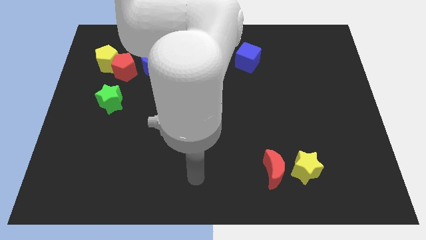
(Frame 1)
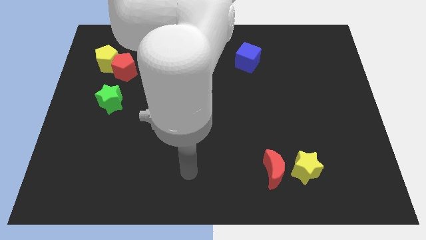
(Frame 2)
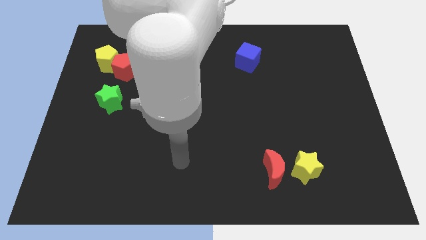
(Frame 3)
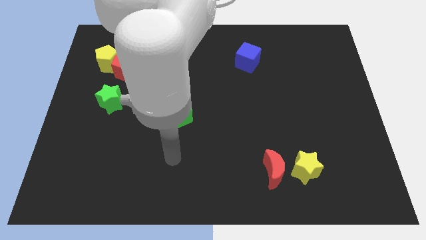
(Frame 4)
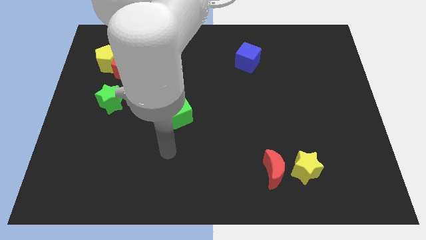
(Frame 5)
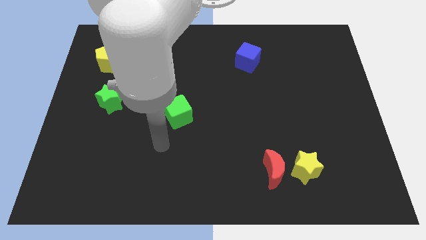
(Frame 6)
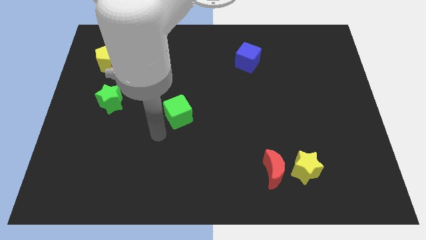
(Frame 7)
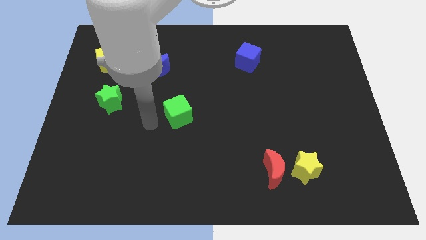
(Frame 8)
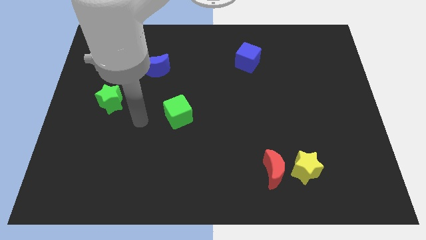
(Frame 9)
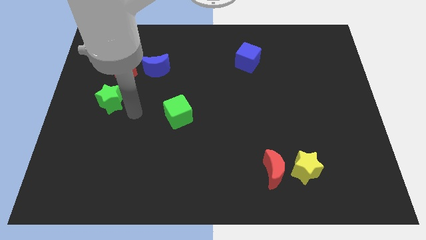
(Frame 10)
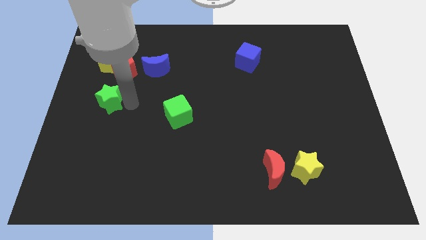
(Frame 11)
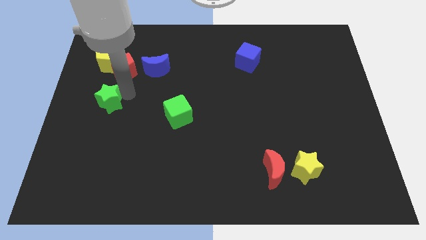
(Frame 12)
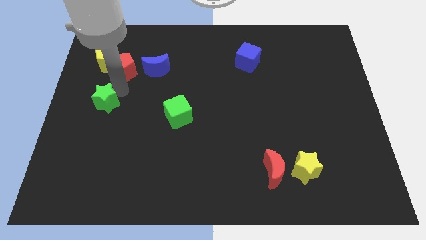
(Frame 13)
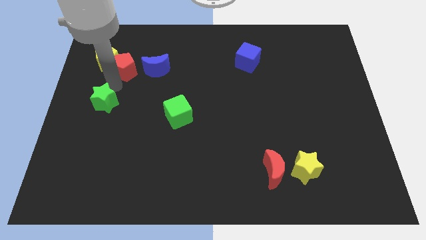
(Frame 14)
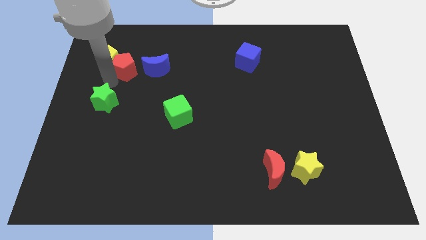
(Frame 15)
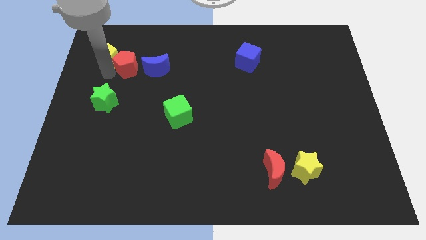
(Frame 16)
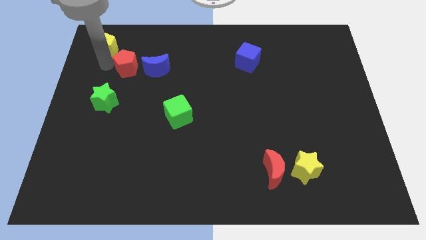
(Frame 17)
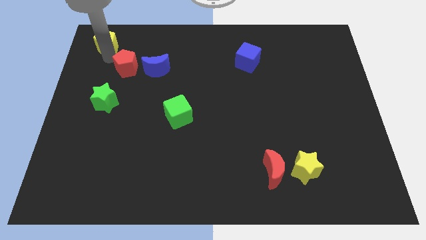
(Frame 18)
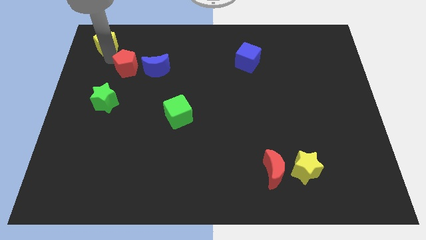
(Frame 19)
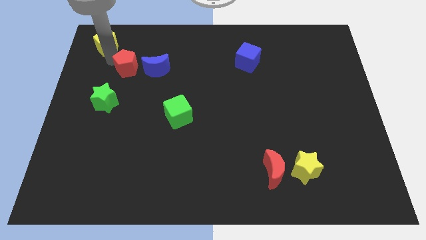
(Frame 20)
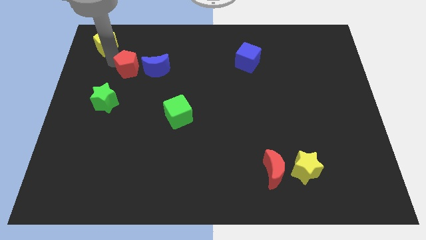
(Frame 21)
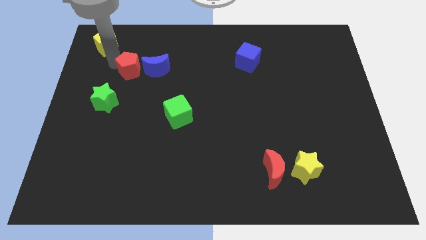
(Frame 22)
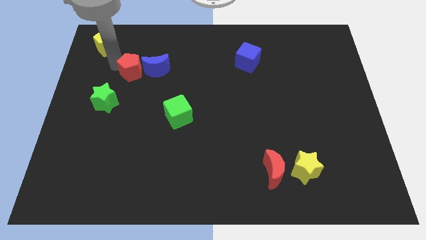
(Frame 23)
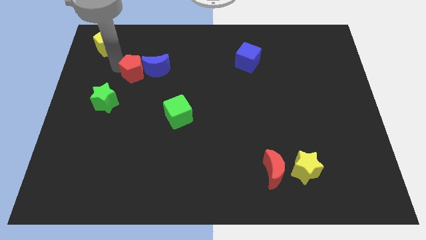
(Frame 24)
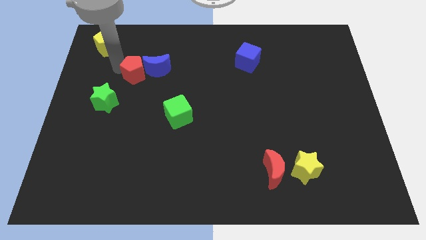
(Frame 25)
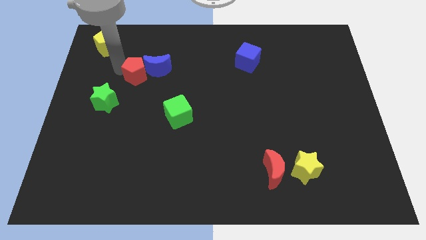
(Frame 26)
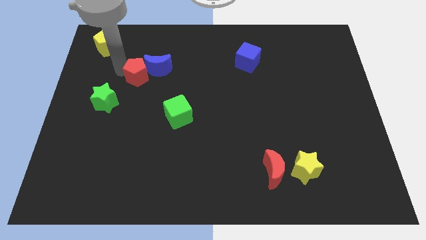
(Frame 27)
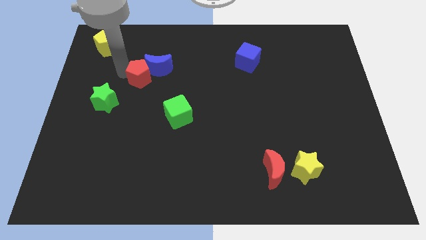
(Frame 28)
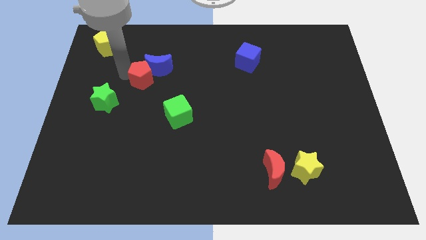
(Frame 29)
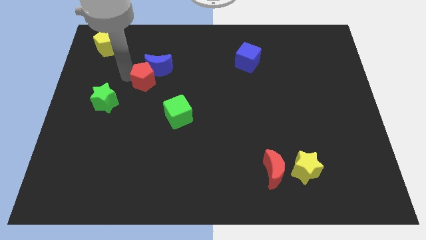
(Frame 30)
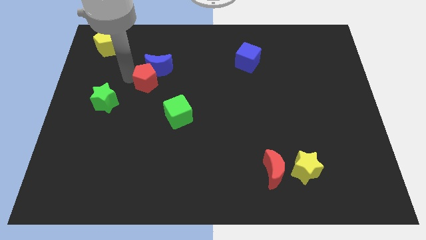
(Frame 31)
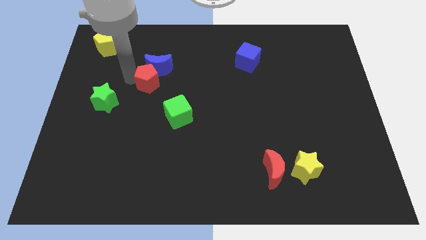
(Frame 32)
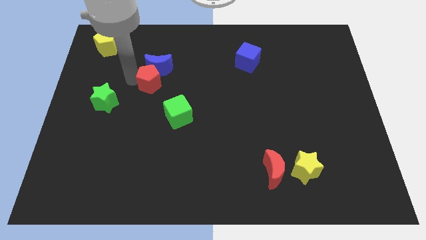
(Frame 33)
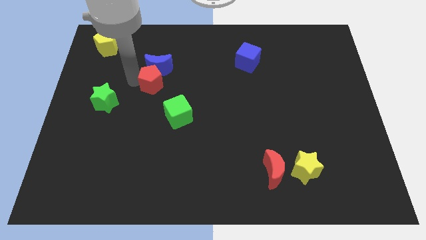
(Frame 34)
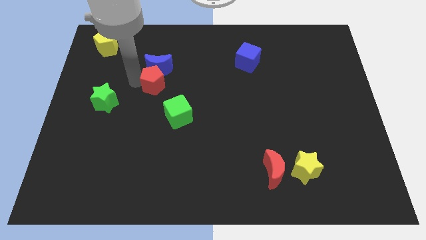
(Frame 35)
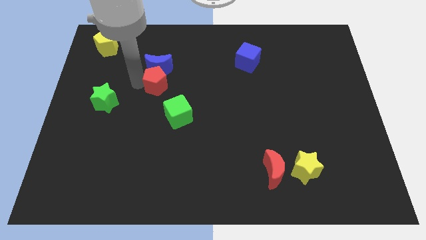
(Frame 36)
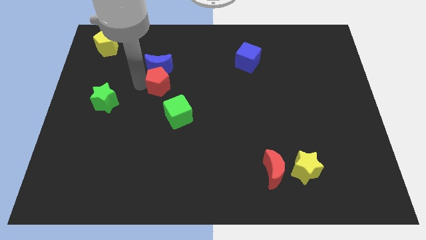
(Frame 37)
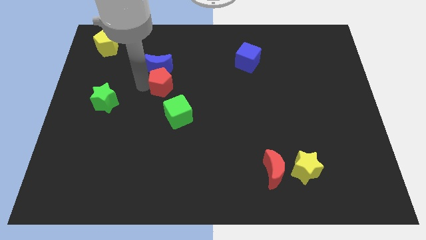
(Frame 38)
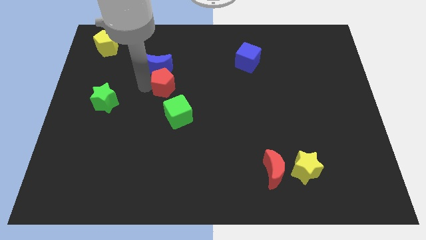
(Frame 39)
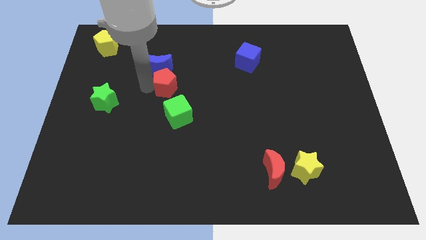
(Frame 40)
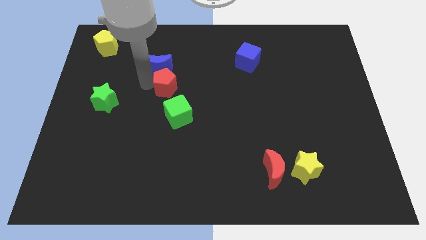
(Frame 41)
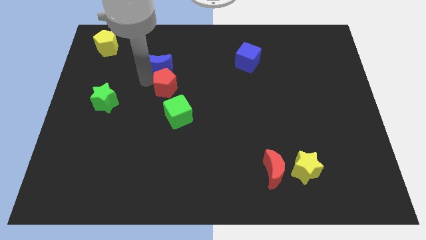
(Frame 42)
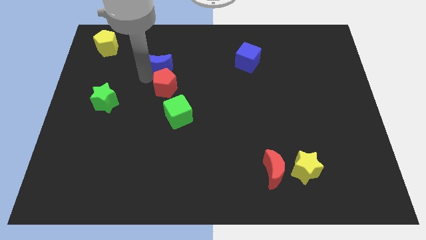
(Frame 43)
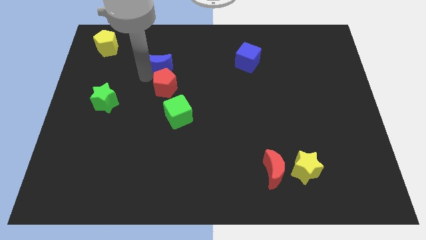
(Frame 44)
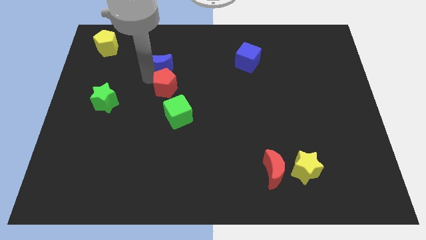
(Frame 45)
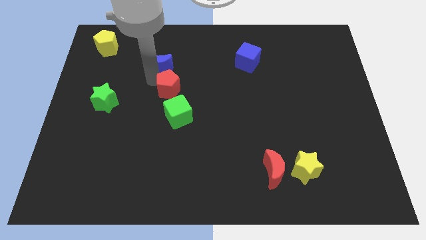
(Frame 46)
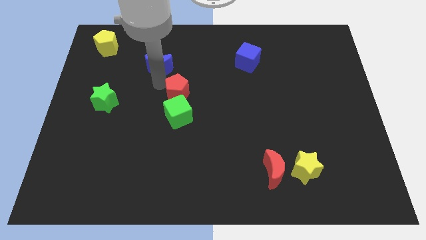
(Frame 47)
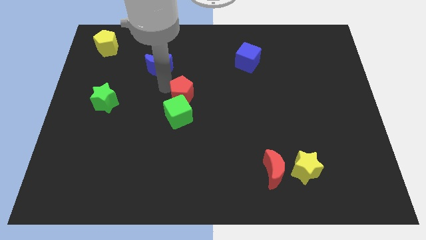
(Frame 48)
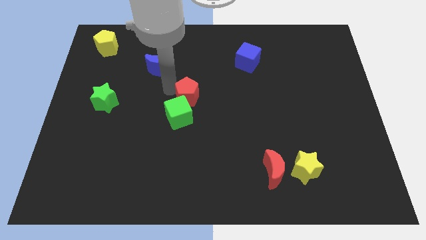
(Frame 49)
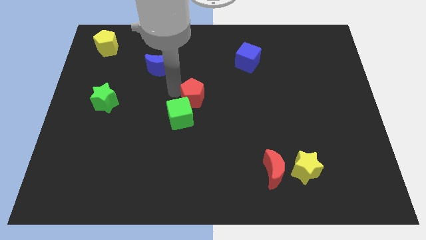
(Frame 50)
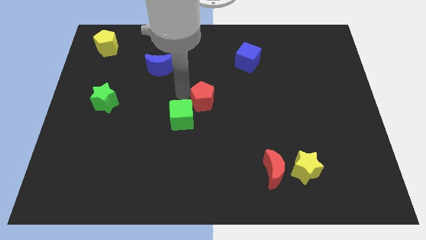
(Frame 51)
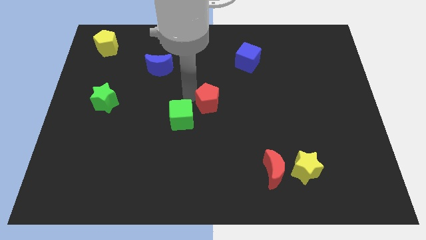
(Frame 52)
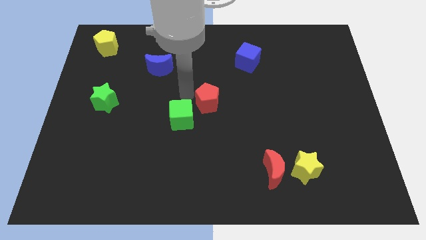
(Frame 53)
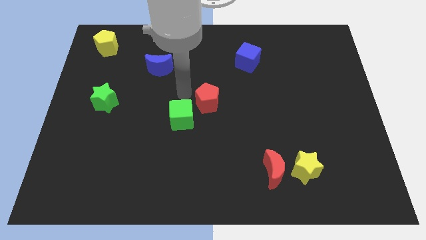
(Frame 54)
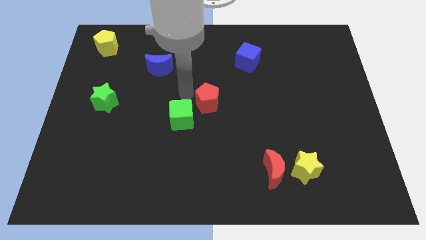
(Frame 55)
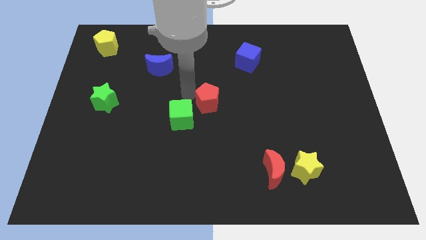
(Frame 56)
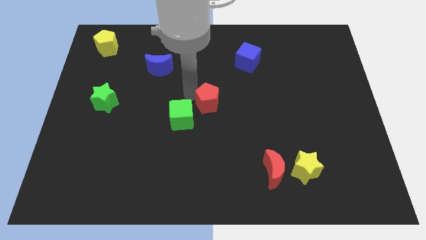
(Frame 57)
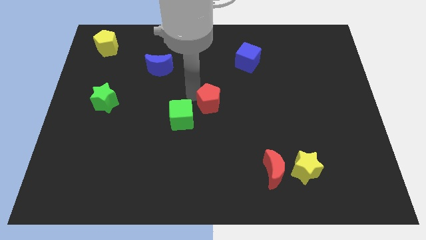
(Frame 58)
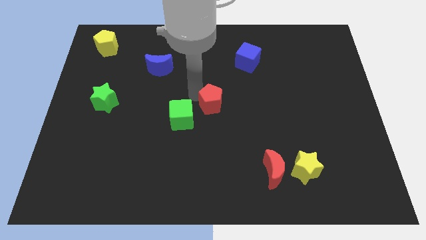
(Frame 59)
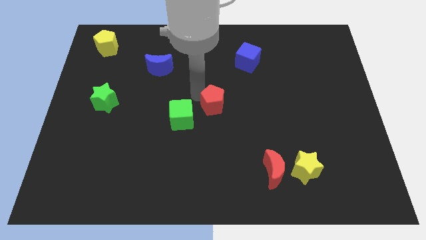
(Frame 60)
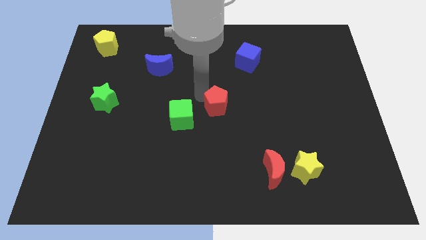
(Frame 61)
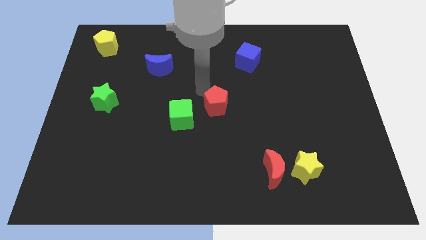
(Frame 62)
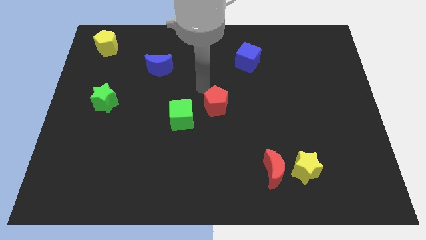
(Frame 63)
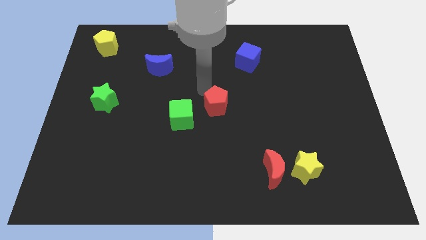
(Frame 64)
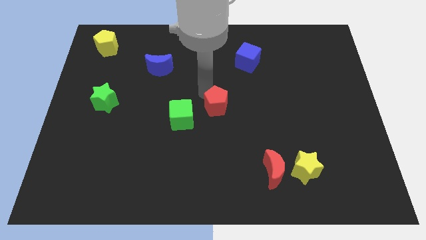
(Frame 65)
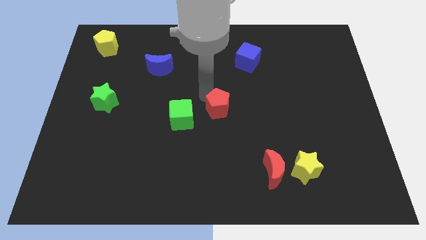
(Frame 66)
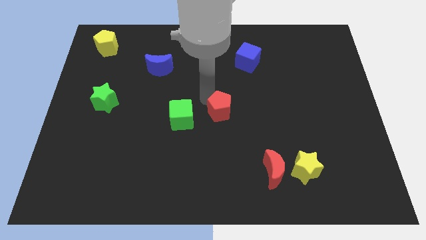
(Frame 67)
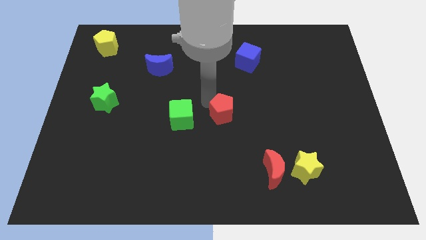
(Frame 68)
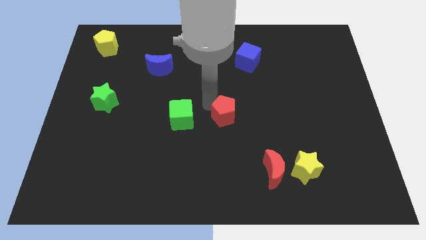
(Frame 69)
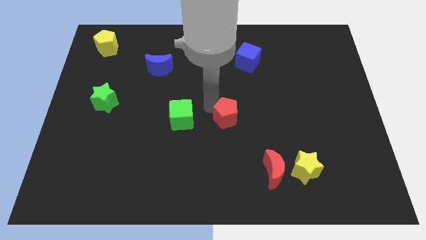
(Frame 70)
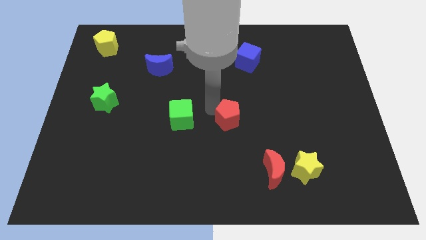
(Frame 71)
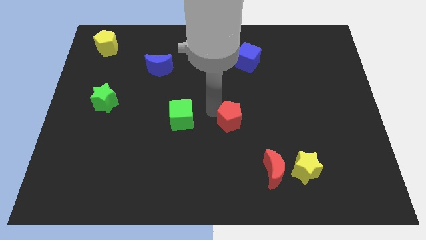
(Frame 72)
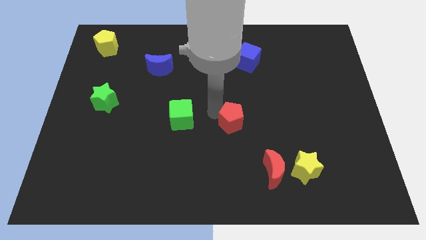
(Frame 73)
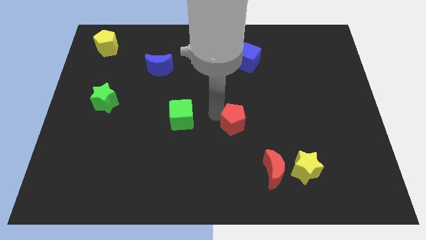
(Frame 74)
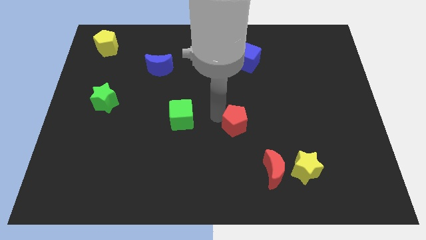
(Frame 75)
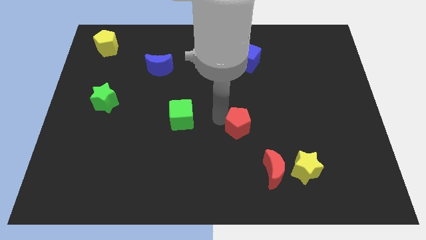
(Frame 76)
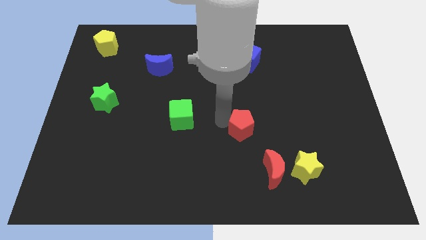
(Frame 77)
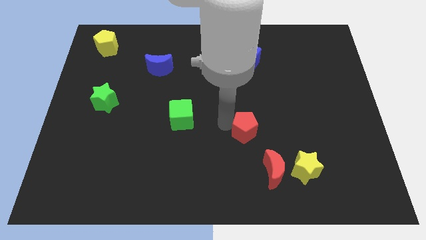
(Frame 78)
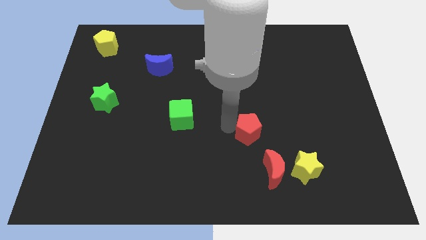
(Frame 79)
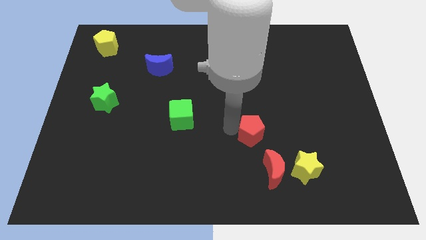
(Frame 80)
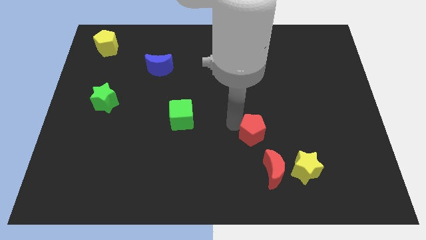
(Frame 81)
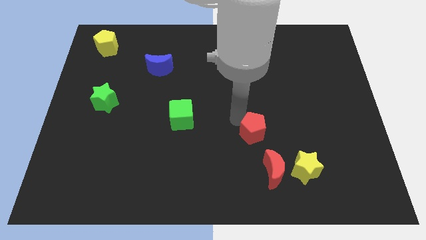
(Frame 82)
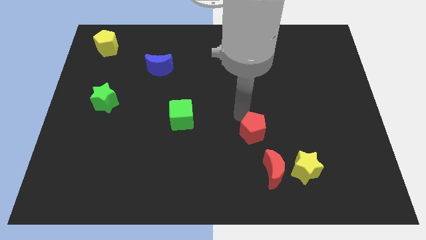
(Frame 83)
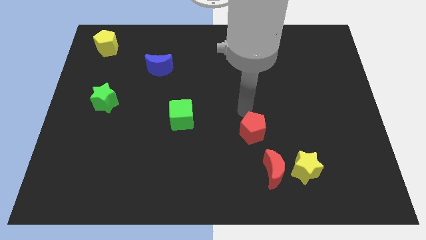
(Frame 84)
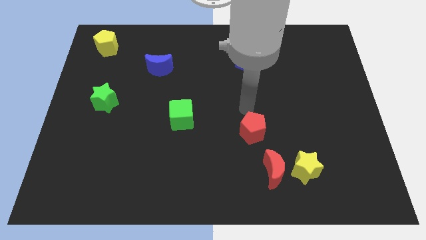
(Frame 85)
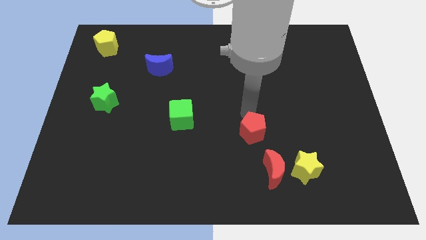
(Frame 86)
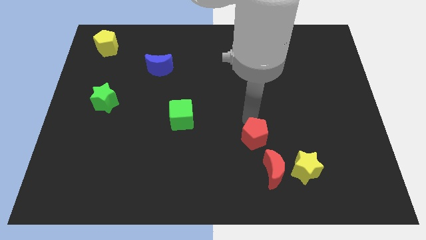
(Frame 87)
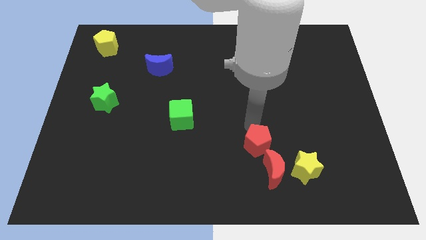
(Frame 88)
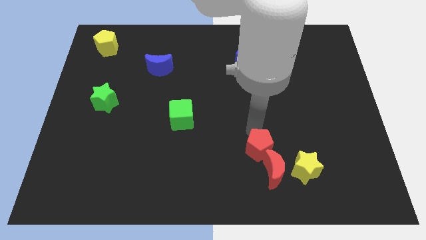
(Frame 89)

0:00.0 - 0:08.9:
move the red pentagon towards the red moon
